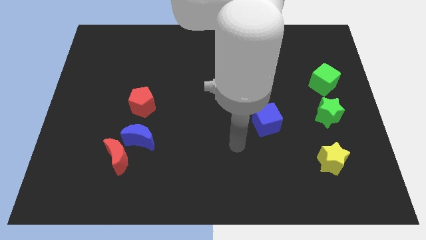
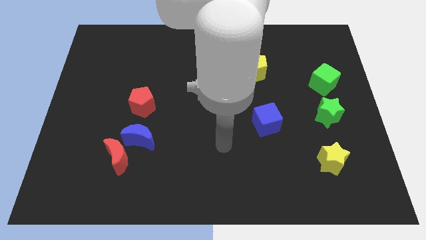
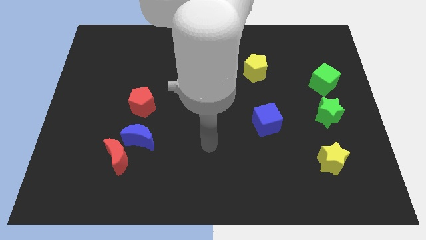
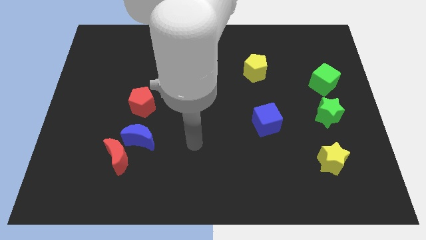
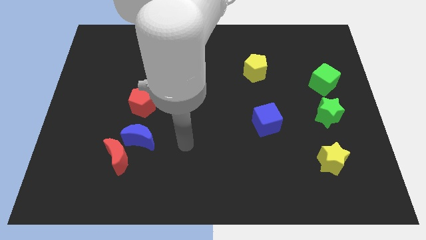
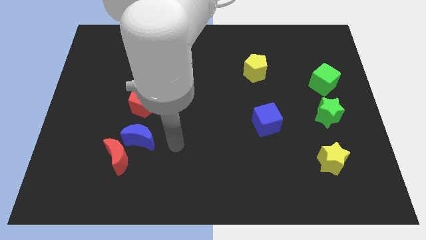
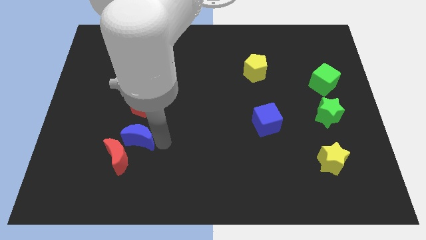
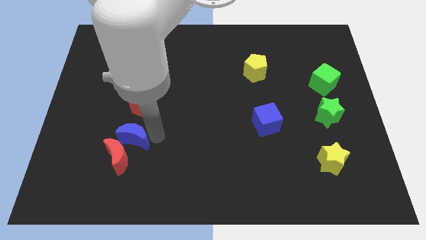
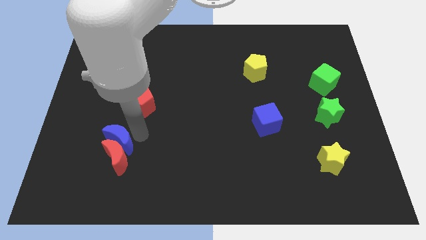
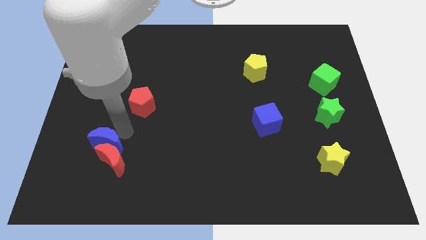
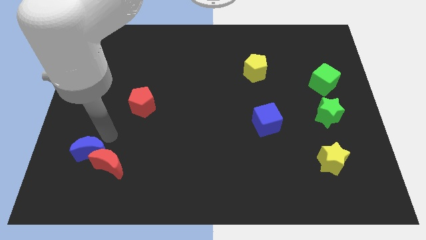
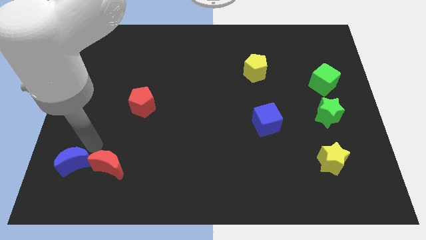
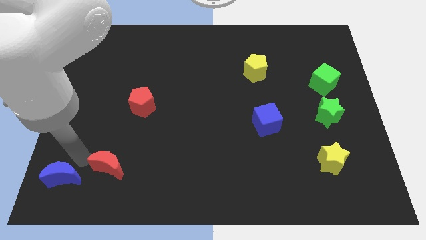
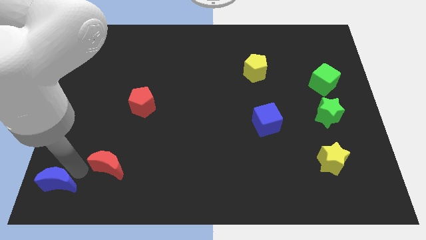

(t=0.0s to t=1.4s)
pull the red moon apart from the blue moon

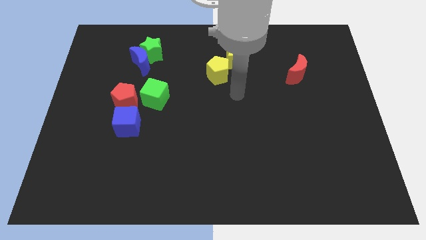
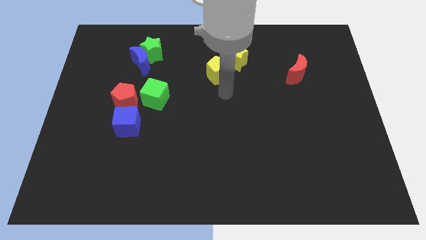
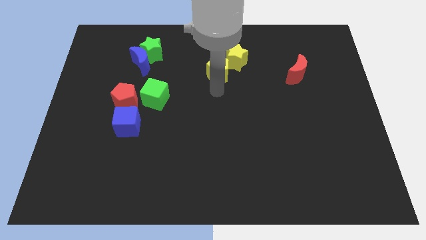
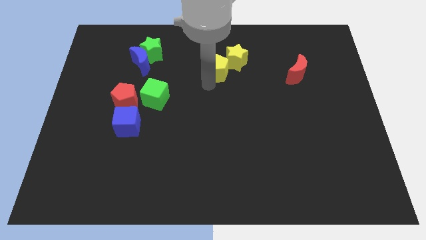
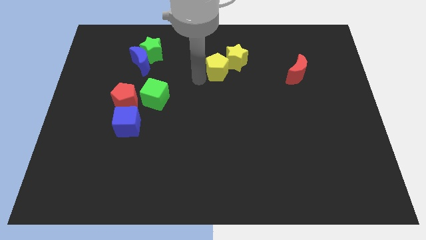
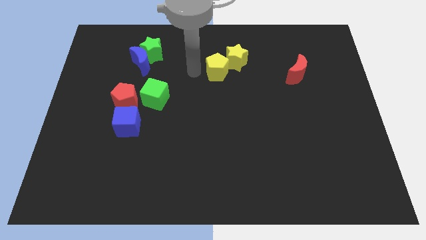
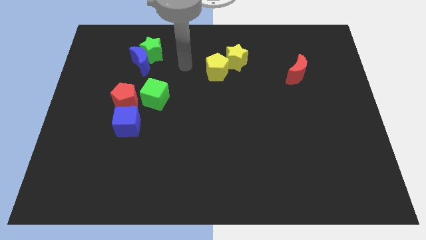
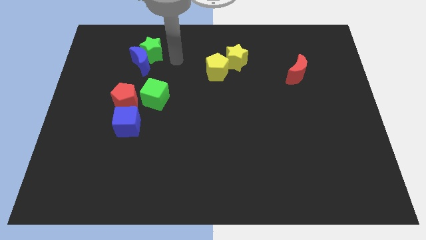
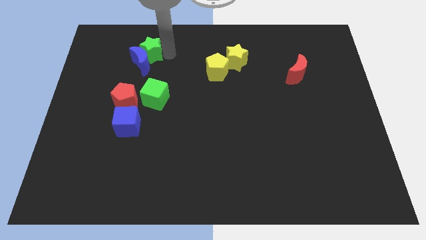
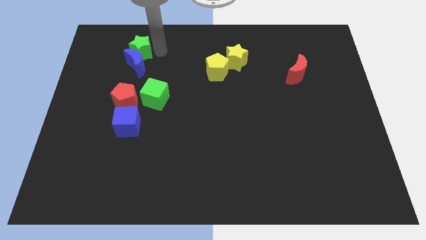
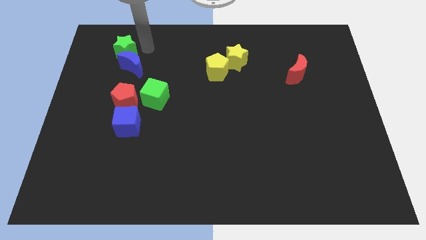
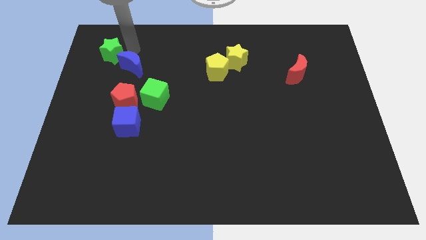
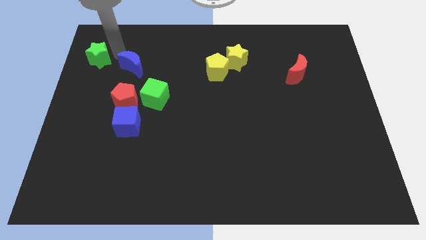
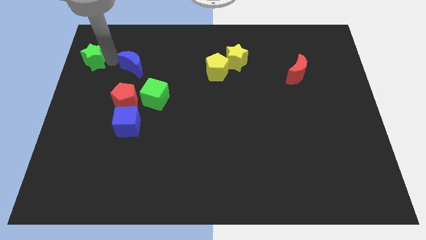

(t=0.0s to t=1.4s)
pull the blue moon apart from the green star

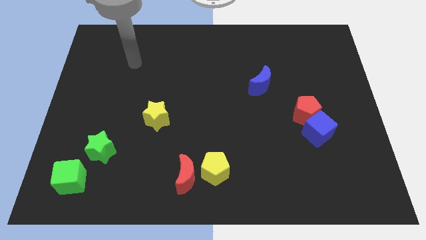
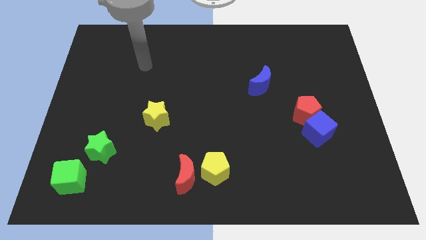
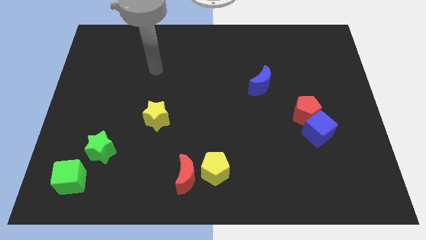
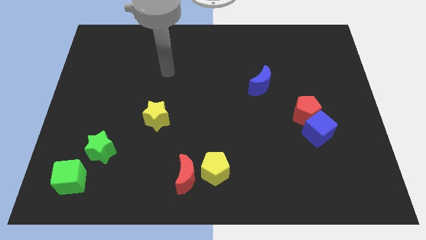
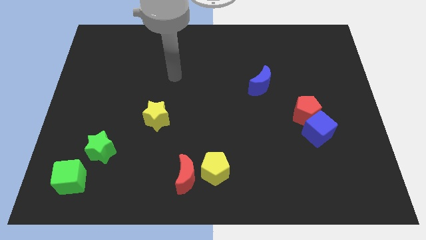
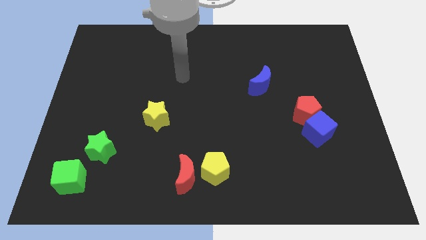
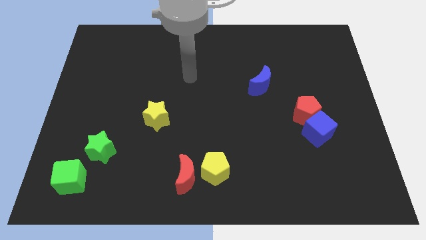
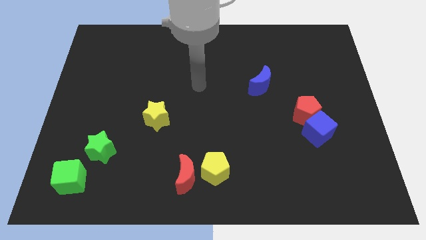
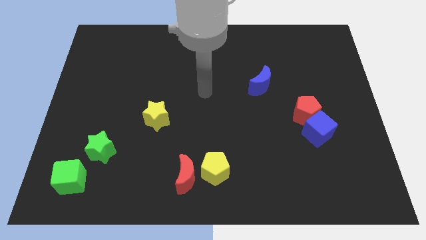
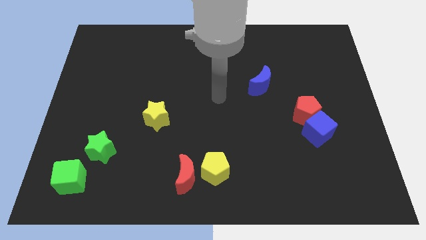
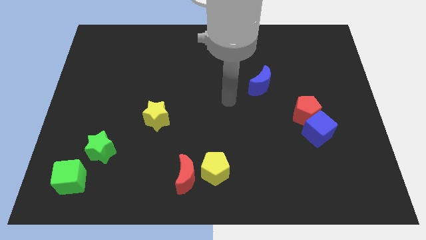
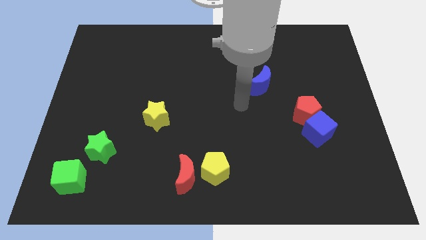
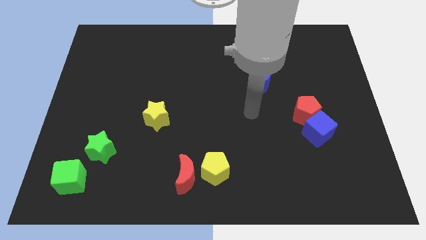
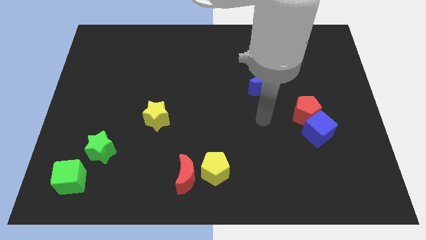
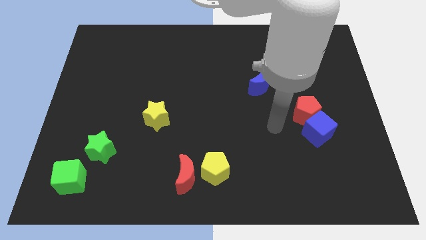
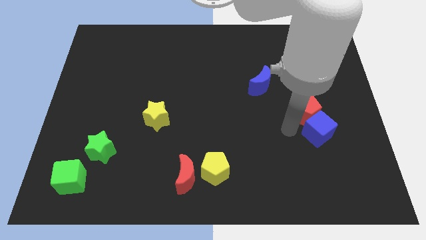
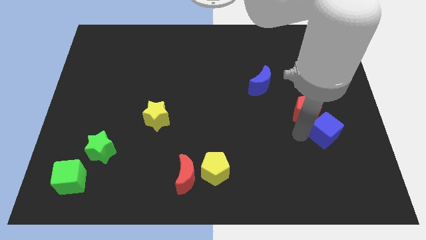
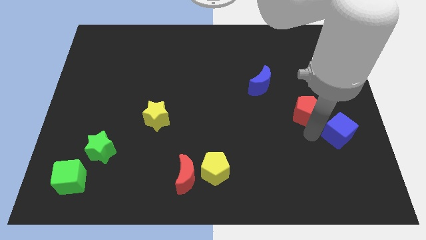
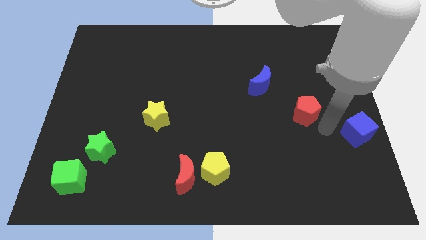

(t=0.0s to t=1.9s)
move the red pentagon away from the blue cube

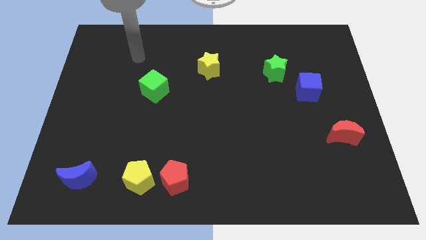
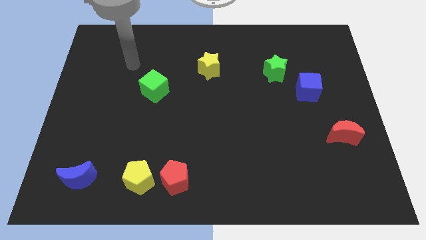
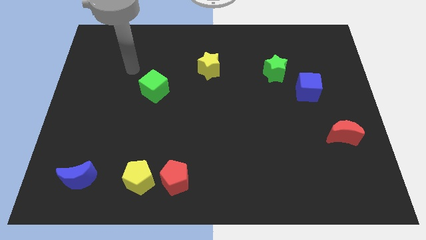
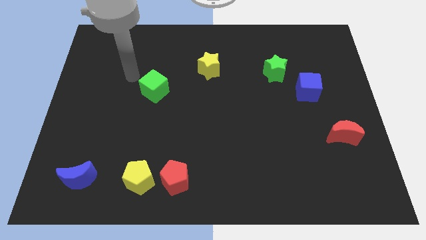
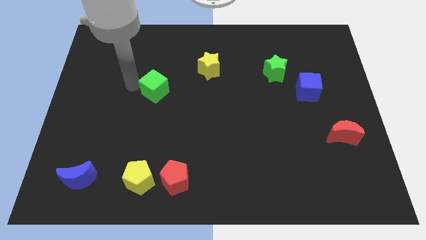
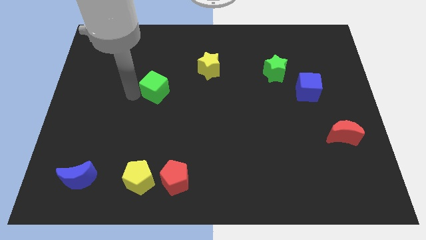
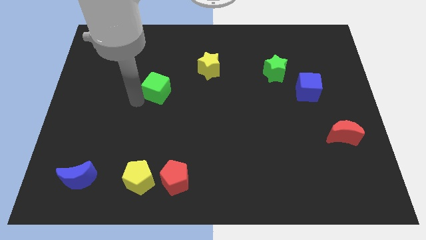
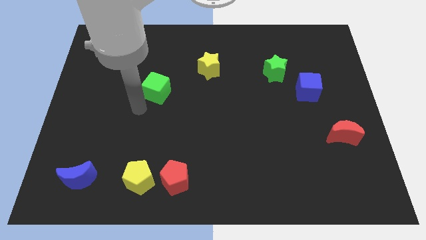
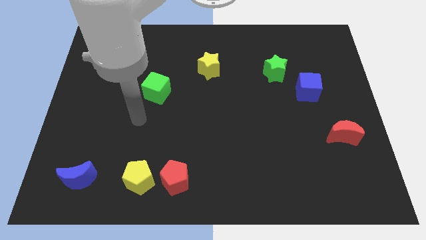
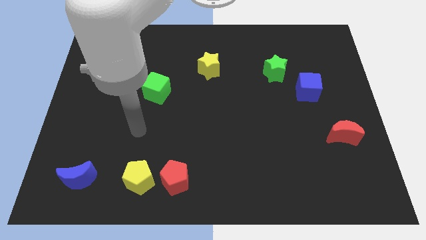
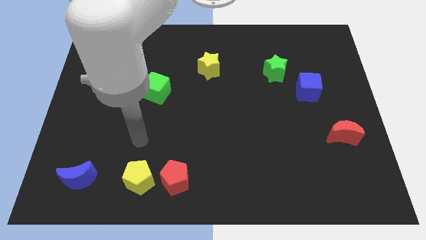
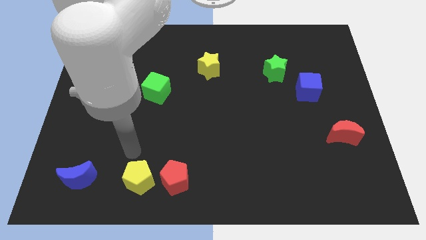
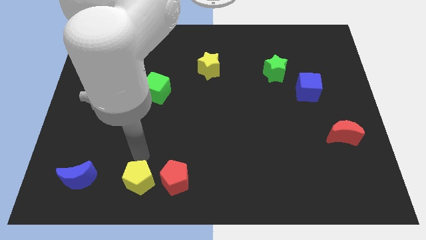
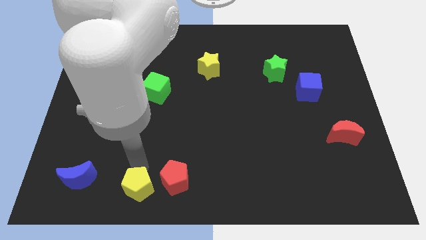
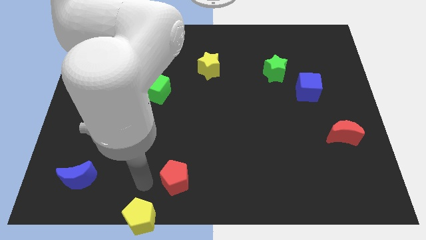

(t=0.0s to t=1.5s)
move the red pentagon away from the yellow pentagon

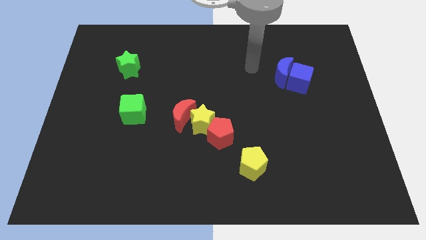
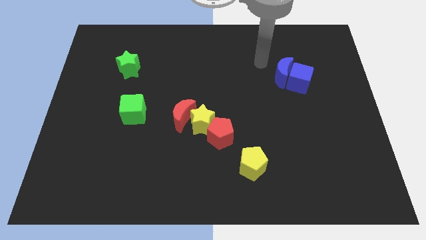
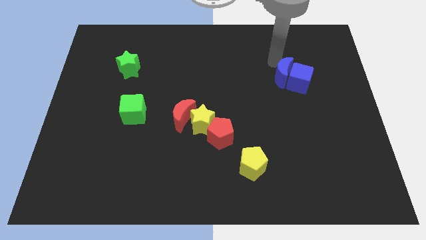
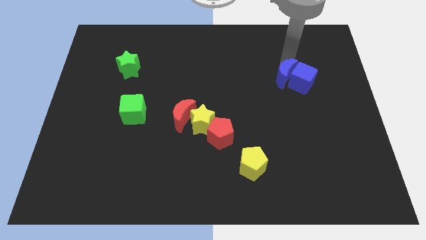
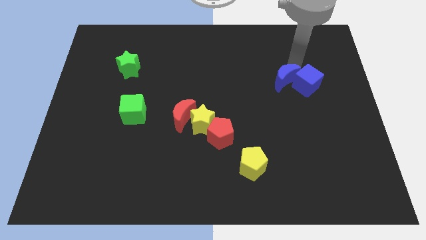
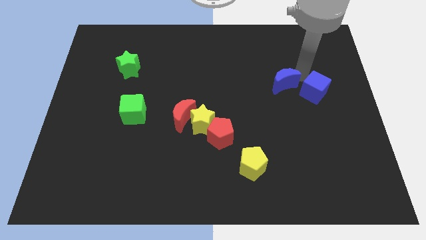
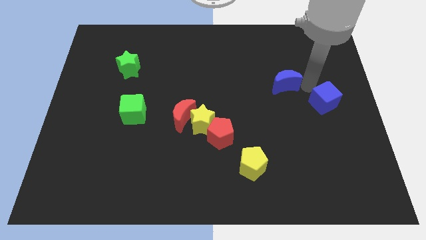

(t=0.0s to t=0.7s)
move the blue moon away from the blue cube

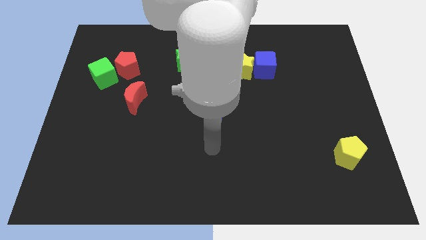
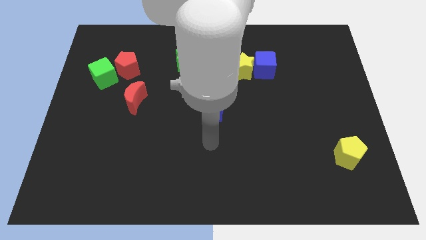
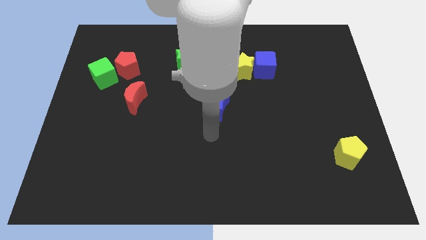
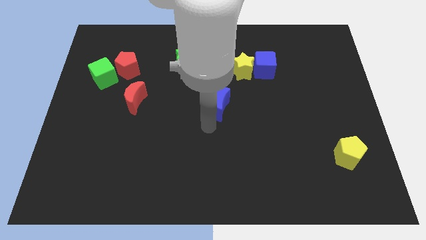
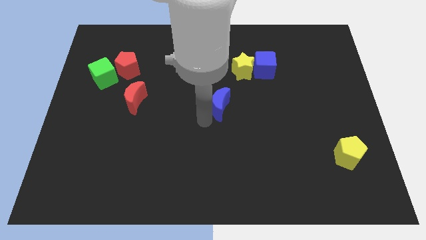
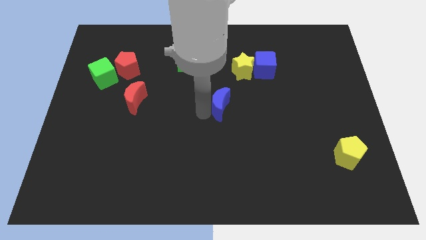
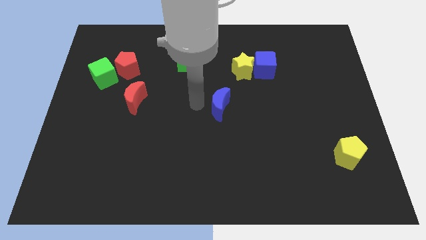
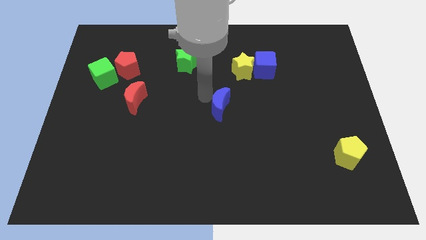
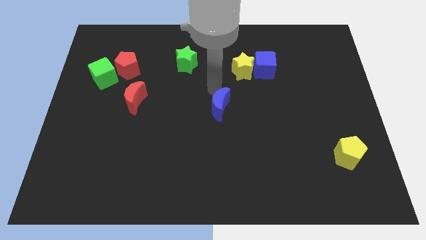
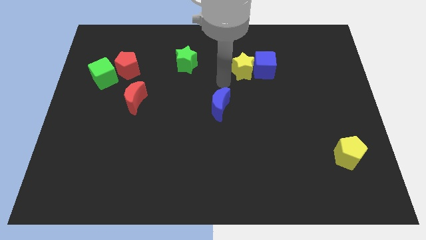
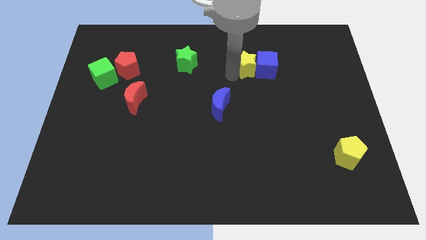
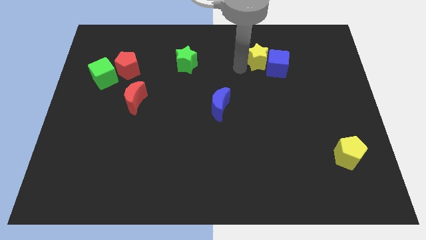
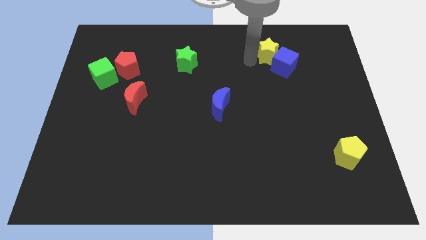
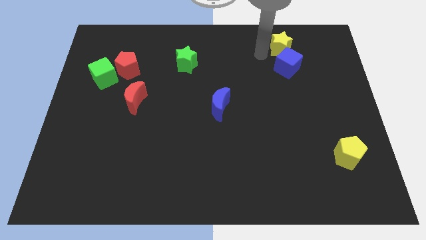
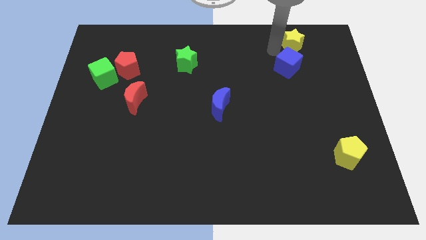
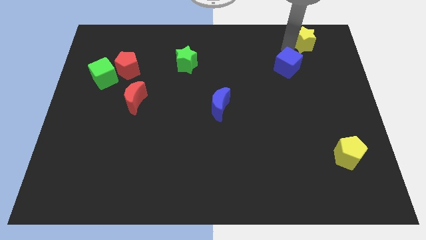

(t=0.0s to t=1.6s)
move the blue cube away from the yellow star

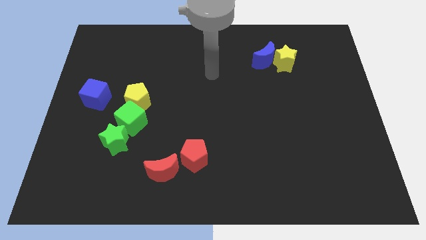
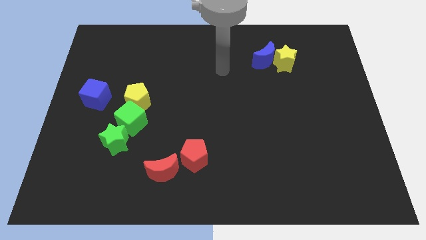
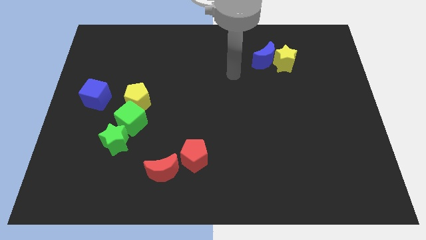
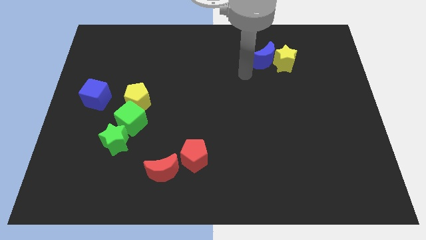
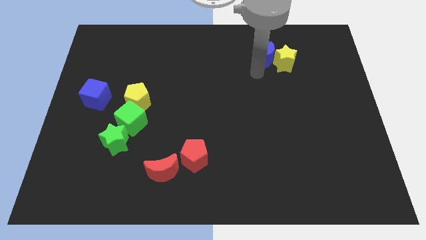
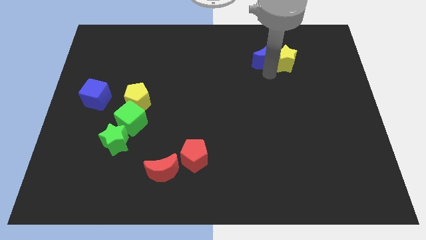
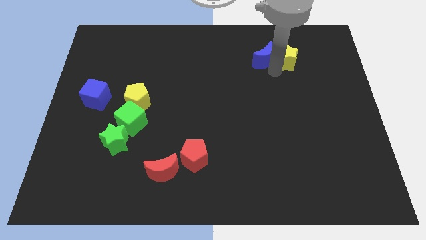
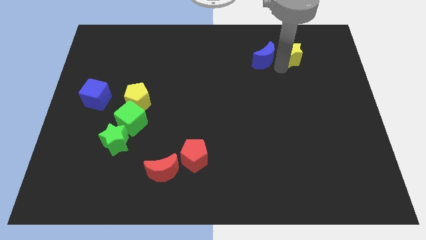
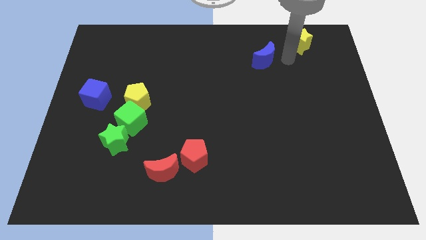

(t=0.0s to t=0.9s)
move the blue moon away from the yellow star
